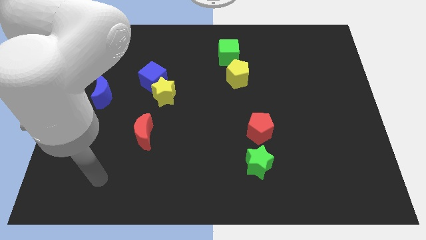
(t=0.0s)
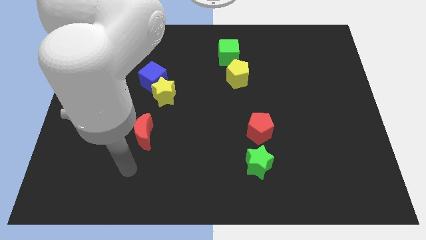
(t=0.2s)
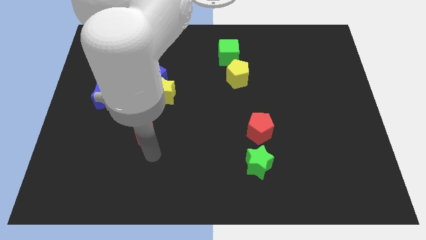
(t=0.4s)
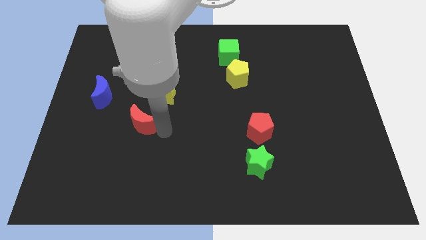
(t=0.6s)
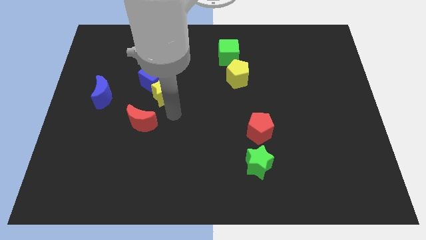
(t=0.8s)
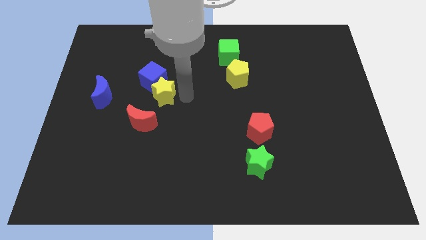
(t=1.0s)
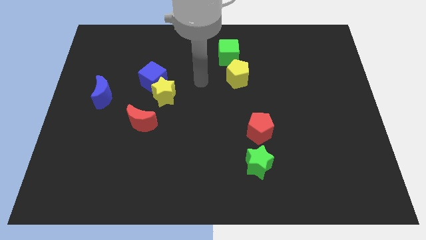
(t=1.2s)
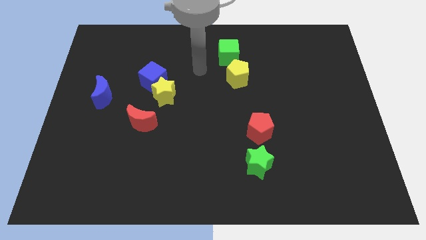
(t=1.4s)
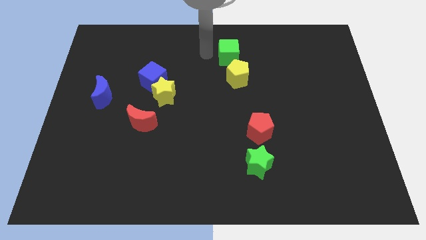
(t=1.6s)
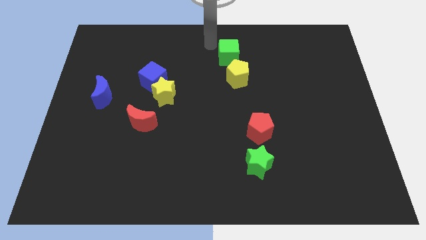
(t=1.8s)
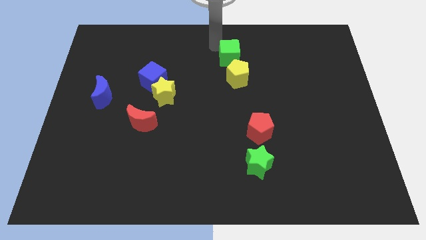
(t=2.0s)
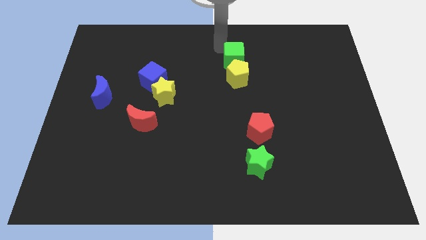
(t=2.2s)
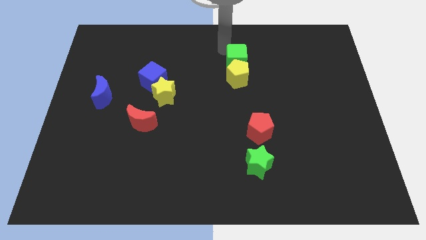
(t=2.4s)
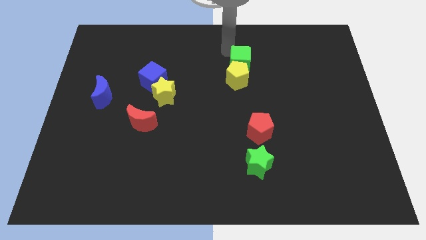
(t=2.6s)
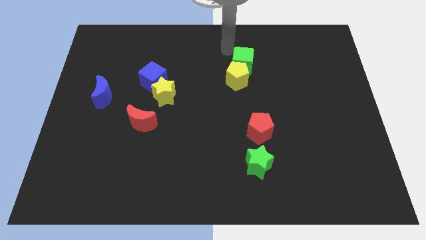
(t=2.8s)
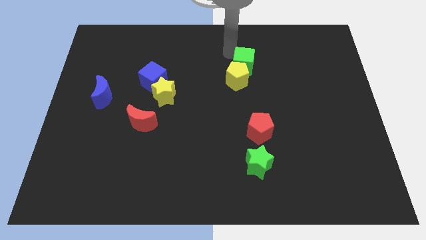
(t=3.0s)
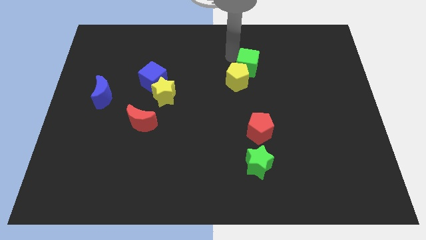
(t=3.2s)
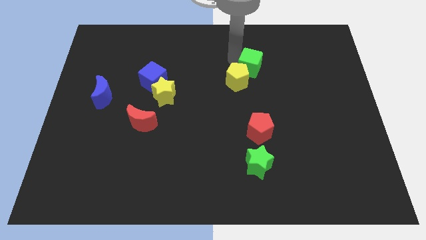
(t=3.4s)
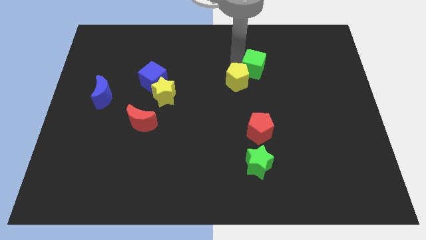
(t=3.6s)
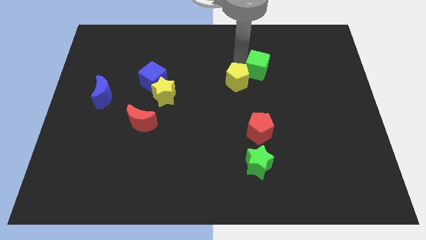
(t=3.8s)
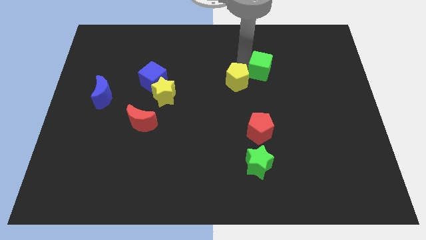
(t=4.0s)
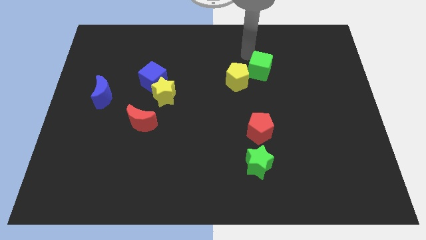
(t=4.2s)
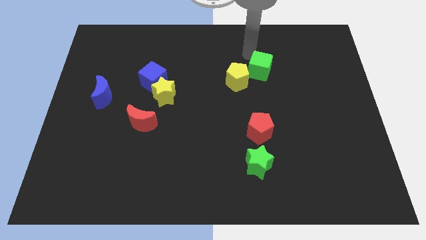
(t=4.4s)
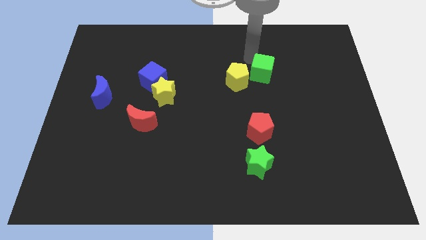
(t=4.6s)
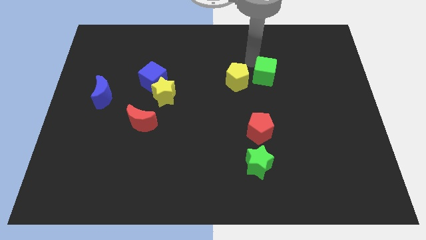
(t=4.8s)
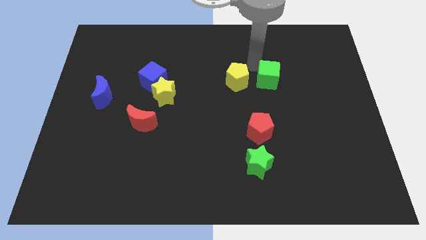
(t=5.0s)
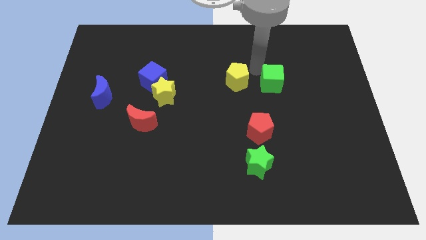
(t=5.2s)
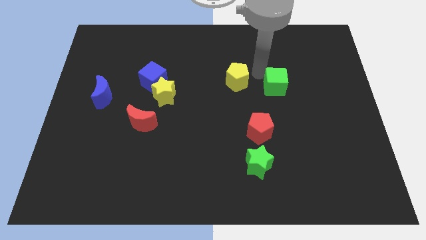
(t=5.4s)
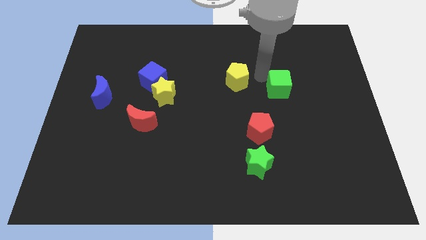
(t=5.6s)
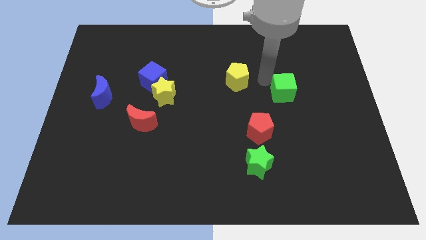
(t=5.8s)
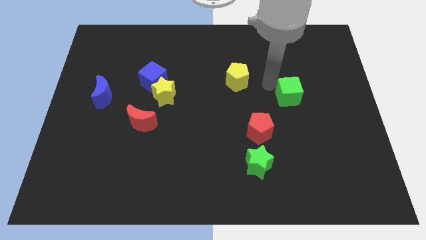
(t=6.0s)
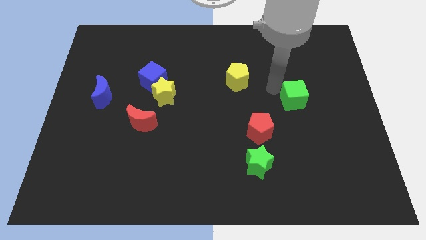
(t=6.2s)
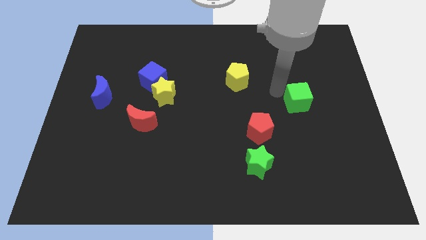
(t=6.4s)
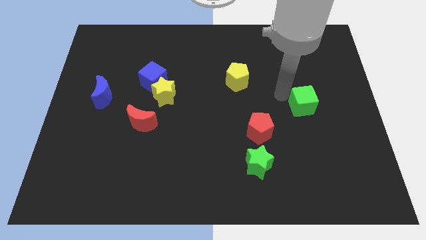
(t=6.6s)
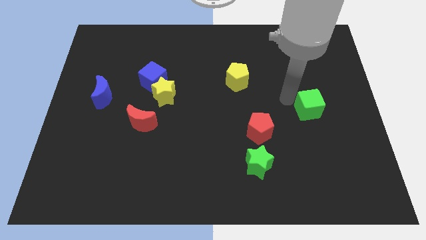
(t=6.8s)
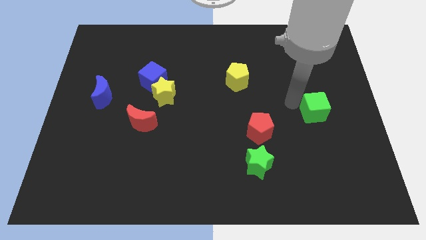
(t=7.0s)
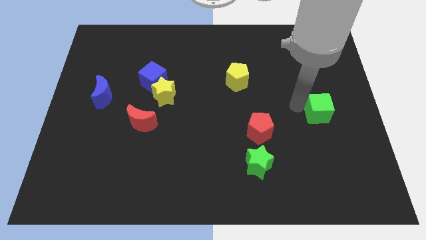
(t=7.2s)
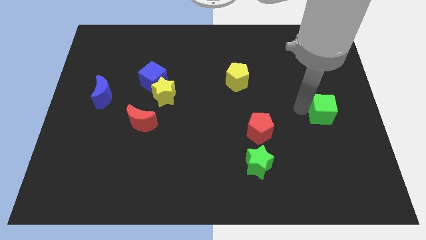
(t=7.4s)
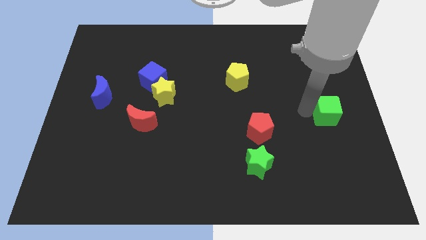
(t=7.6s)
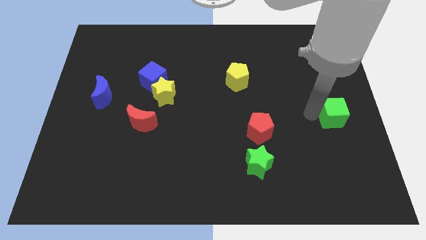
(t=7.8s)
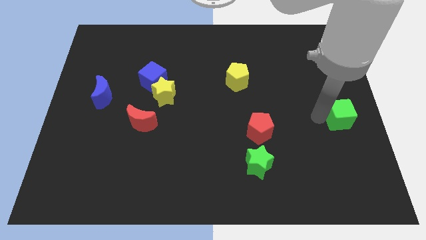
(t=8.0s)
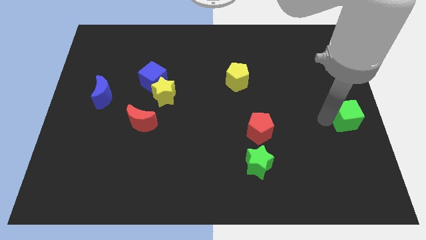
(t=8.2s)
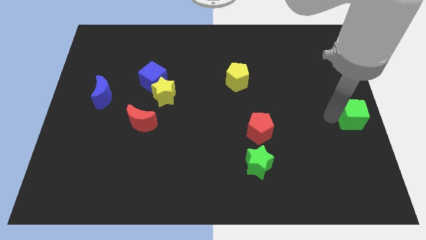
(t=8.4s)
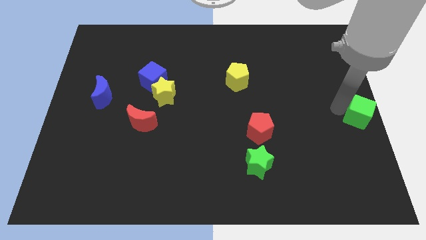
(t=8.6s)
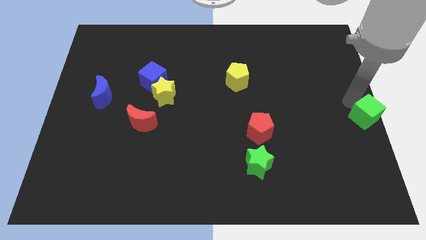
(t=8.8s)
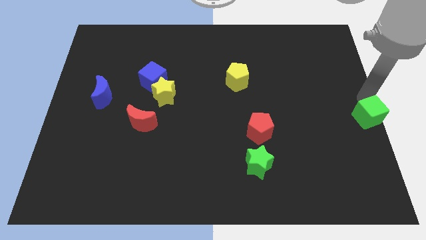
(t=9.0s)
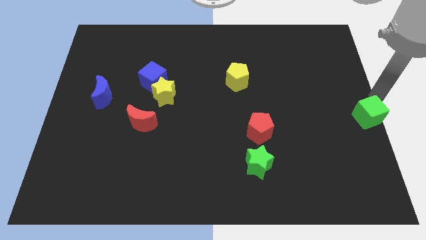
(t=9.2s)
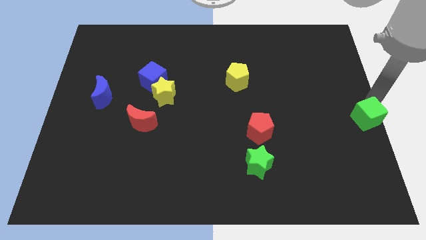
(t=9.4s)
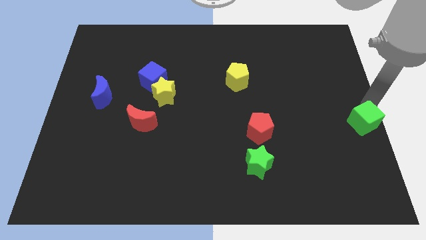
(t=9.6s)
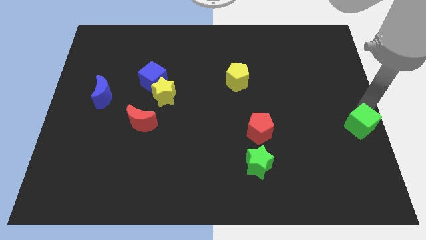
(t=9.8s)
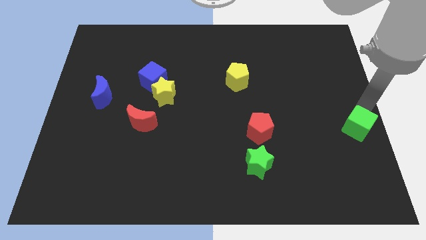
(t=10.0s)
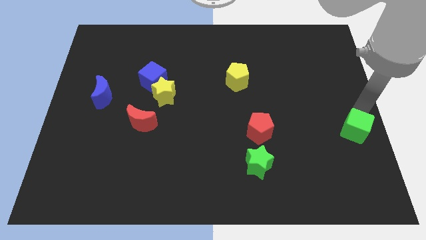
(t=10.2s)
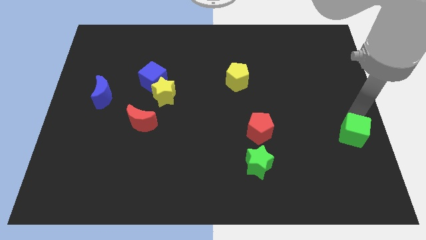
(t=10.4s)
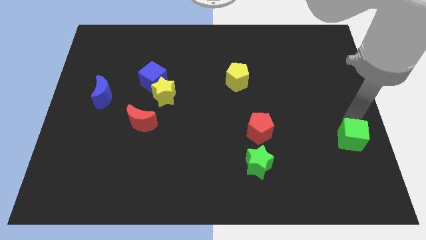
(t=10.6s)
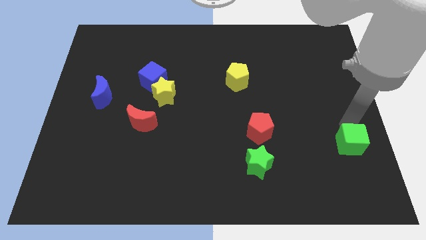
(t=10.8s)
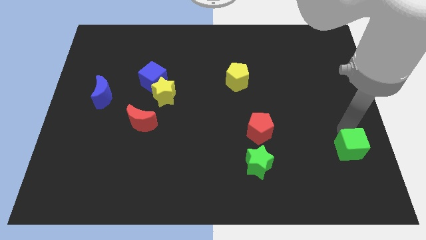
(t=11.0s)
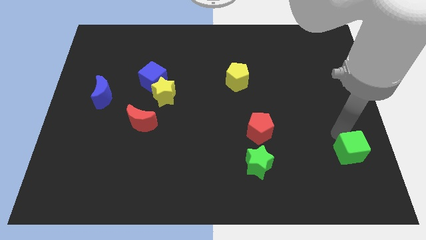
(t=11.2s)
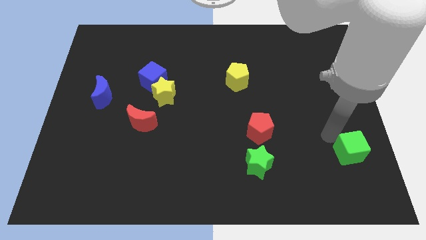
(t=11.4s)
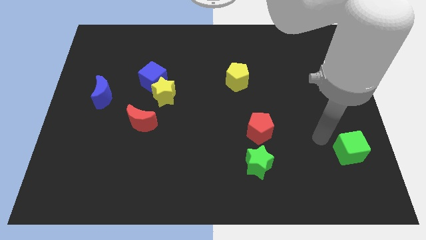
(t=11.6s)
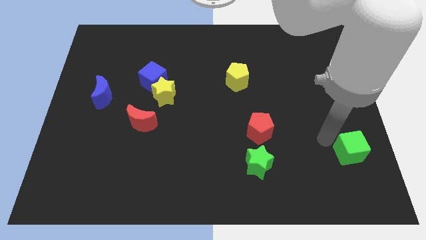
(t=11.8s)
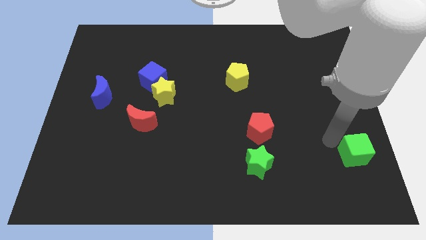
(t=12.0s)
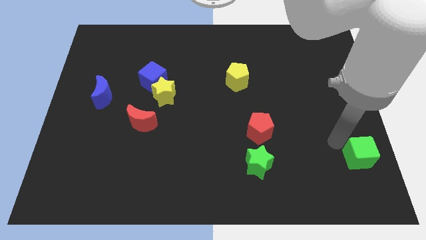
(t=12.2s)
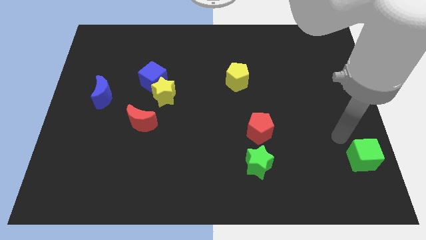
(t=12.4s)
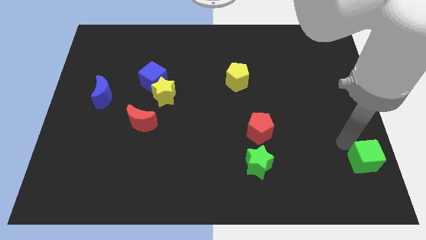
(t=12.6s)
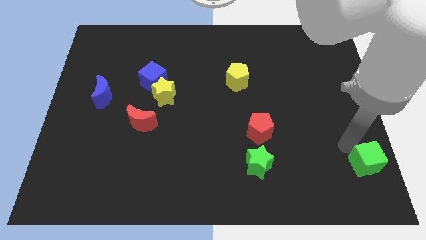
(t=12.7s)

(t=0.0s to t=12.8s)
push the green cube to the bottom right of the board

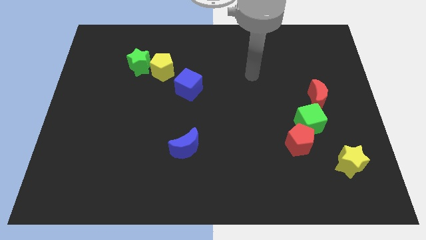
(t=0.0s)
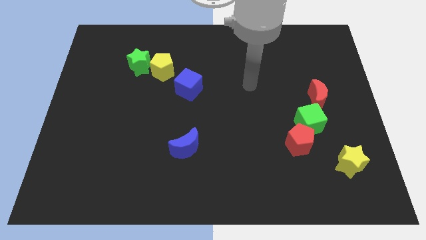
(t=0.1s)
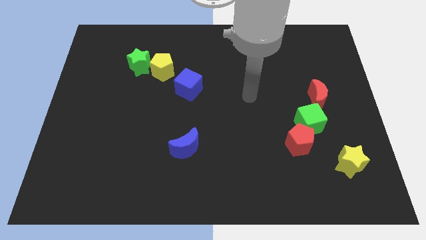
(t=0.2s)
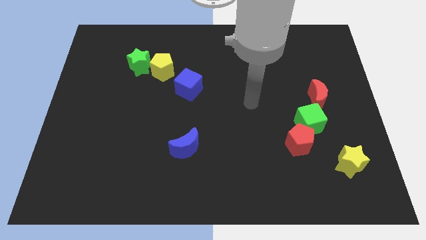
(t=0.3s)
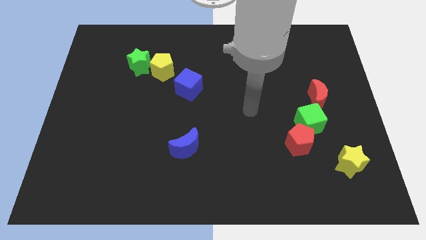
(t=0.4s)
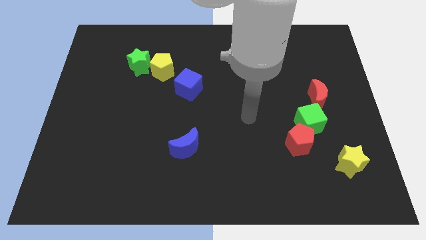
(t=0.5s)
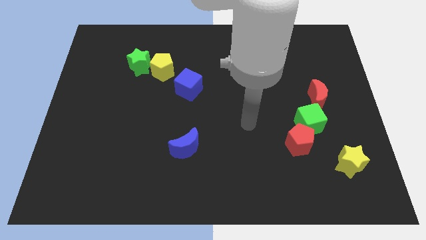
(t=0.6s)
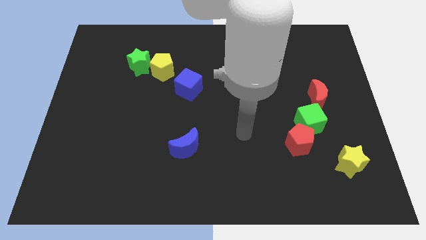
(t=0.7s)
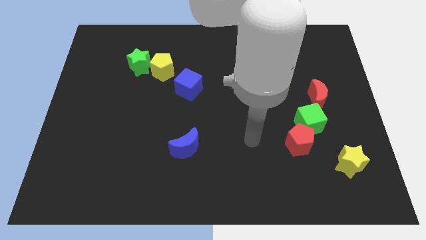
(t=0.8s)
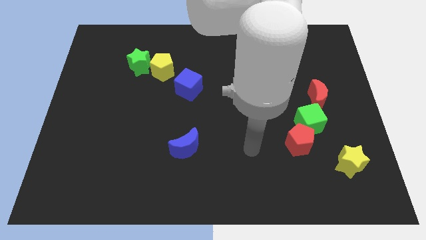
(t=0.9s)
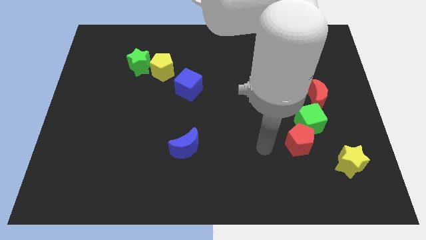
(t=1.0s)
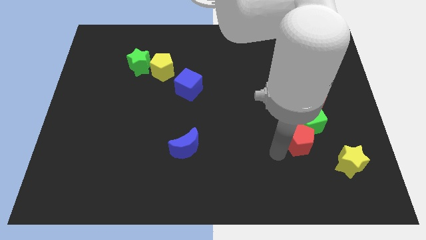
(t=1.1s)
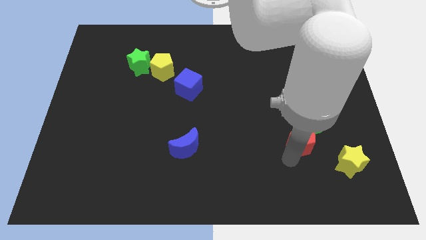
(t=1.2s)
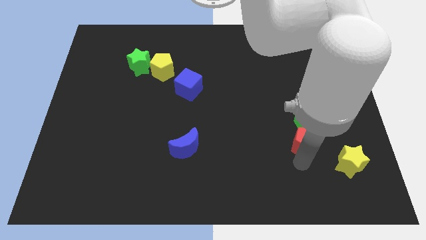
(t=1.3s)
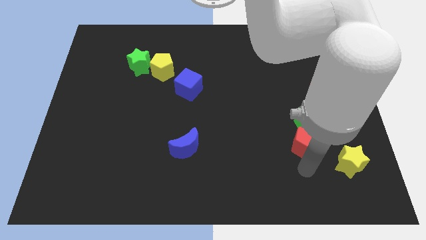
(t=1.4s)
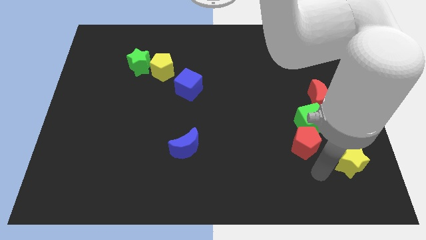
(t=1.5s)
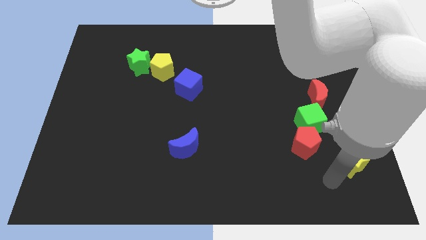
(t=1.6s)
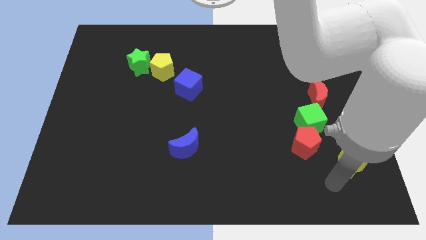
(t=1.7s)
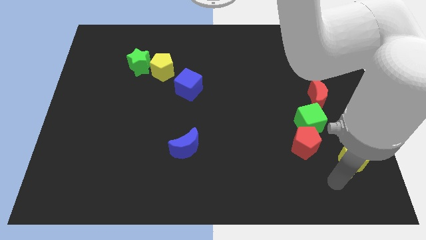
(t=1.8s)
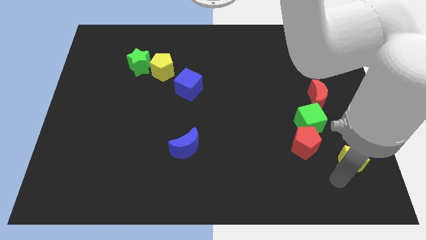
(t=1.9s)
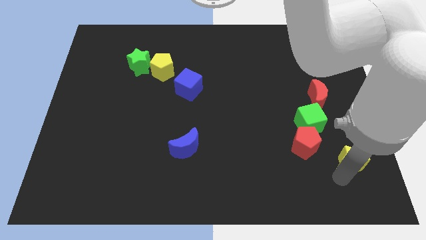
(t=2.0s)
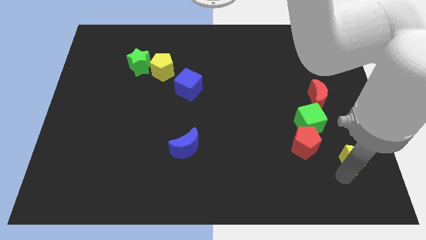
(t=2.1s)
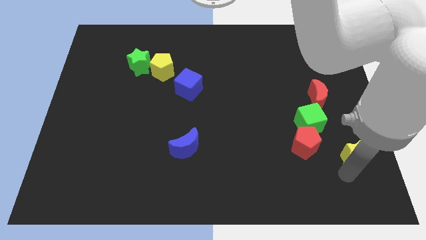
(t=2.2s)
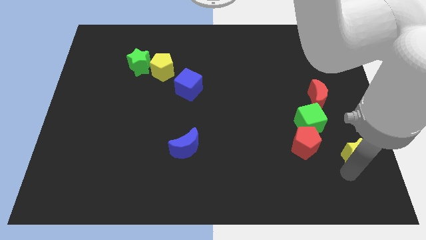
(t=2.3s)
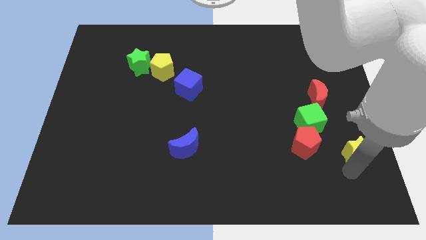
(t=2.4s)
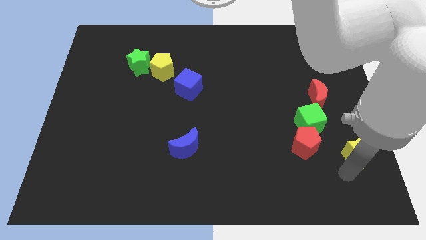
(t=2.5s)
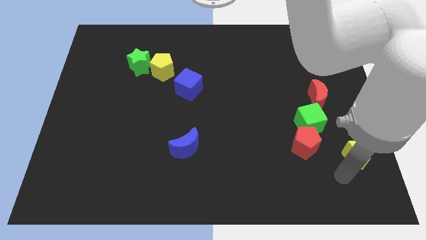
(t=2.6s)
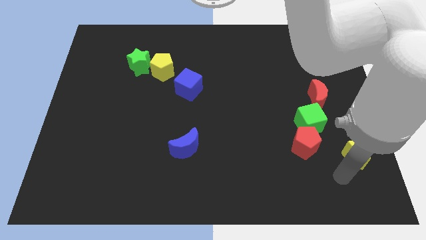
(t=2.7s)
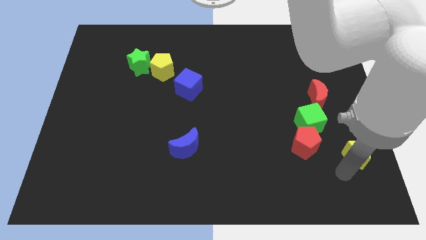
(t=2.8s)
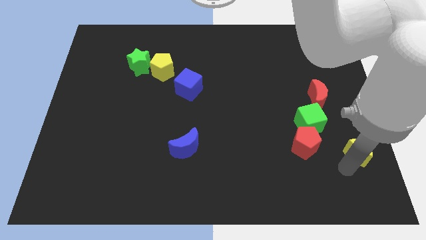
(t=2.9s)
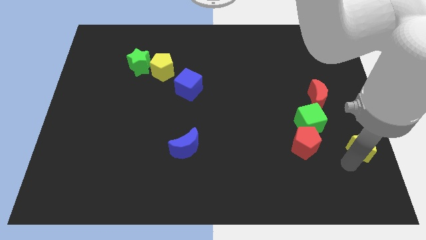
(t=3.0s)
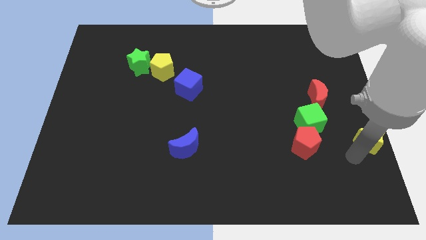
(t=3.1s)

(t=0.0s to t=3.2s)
put the yellow star to the right side
